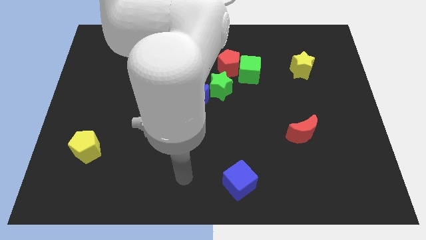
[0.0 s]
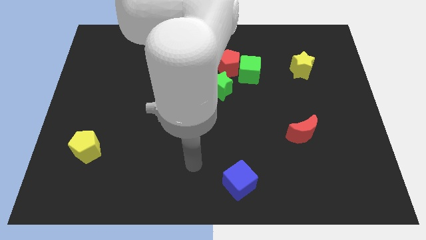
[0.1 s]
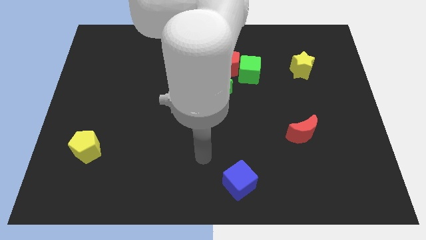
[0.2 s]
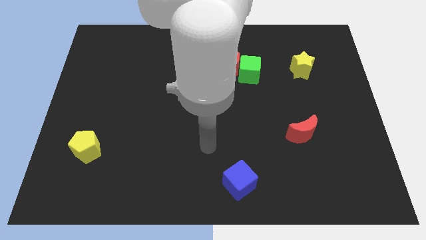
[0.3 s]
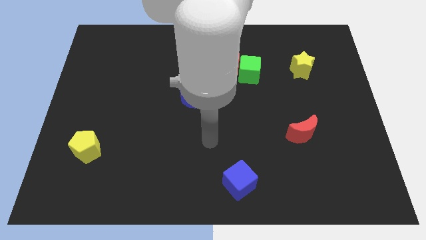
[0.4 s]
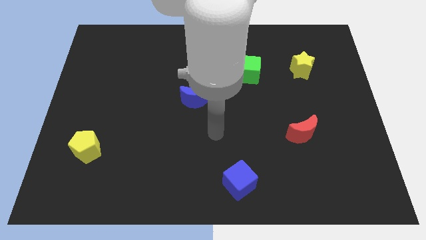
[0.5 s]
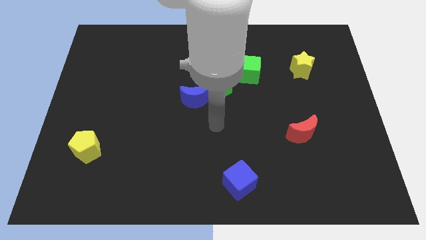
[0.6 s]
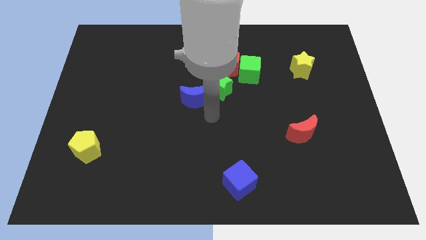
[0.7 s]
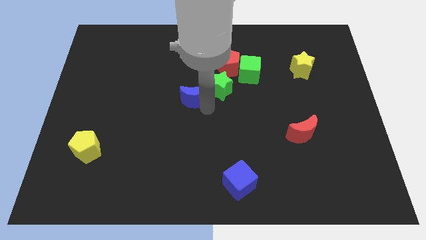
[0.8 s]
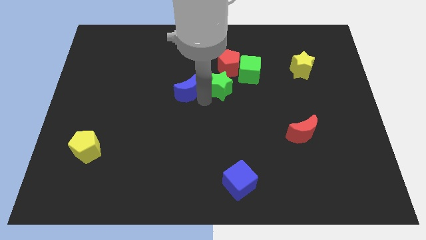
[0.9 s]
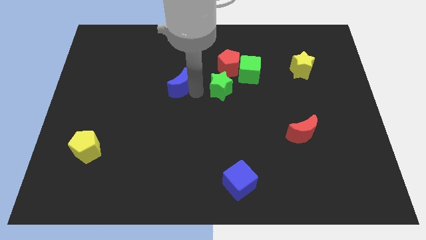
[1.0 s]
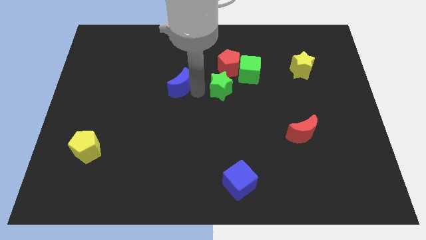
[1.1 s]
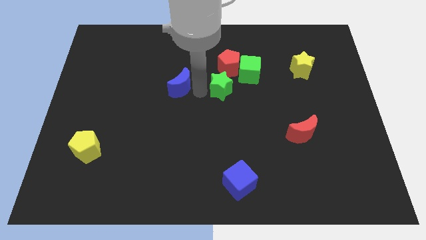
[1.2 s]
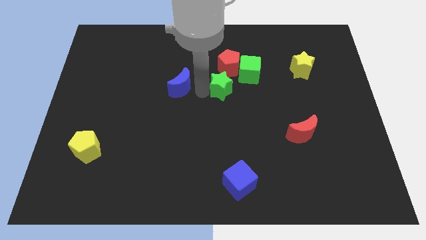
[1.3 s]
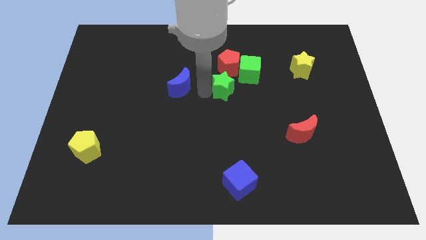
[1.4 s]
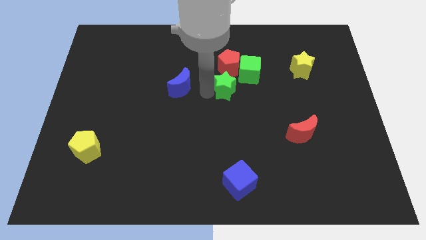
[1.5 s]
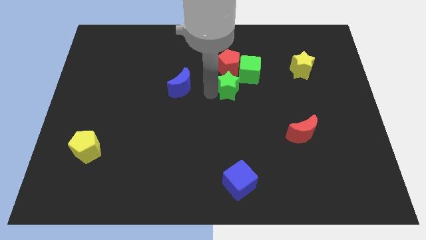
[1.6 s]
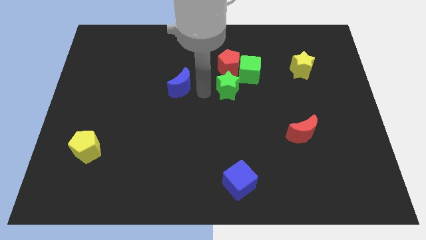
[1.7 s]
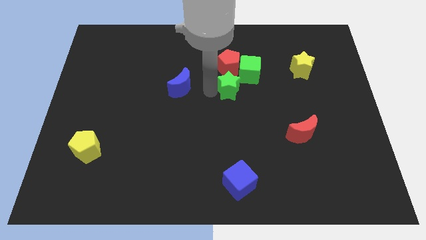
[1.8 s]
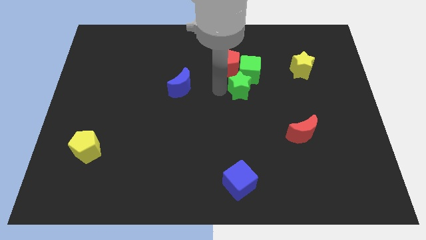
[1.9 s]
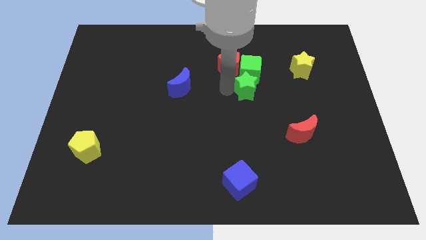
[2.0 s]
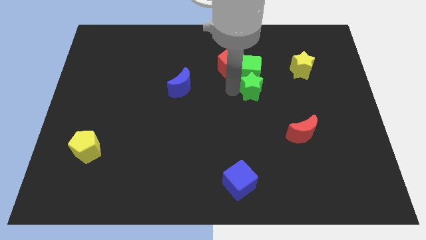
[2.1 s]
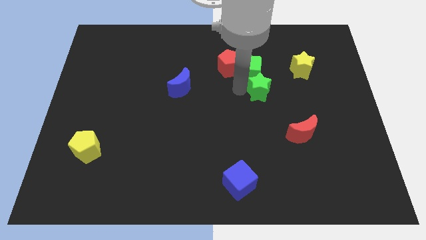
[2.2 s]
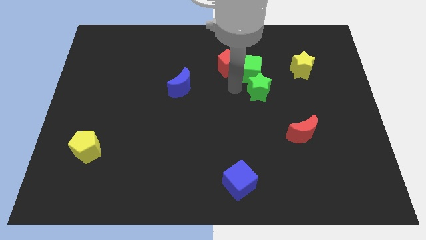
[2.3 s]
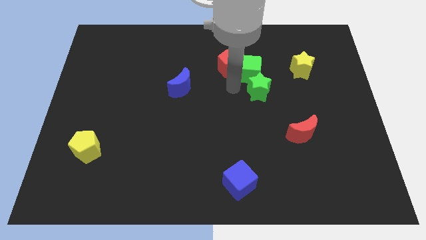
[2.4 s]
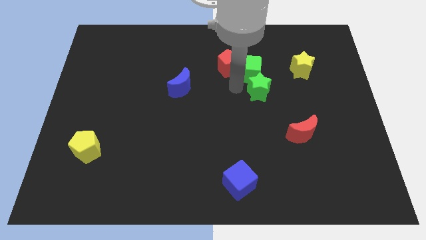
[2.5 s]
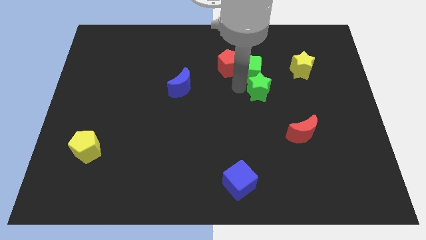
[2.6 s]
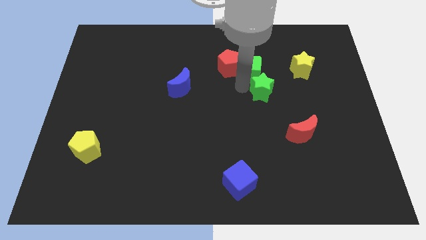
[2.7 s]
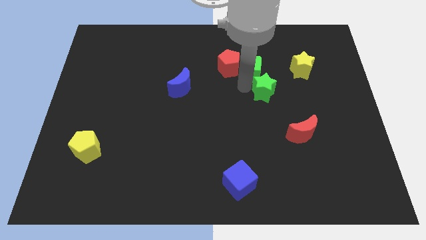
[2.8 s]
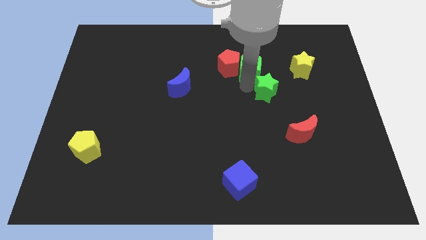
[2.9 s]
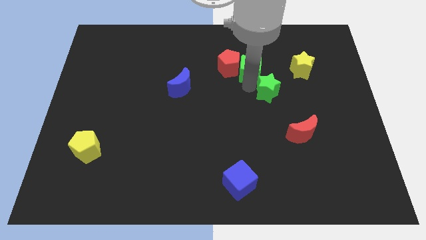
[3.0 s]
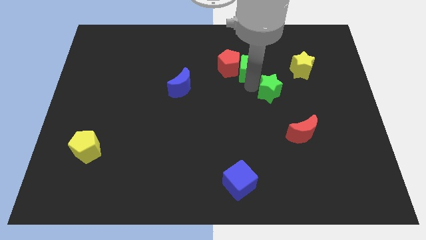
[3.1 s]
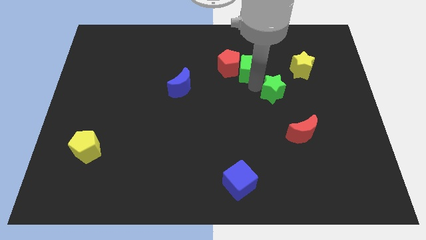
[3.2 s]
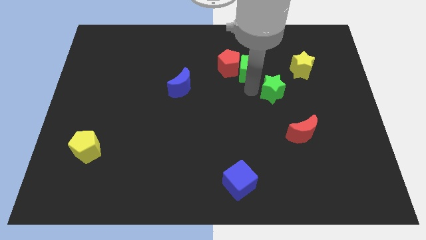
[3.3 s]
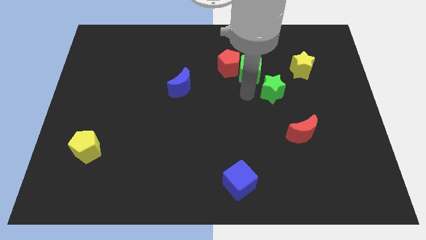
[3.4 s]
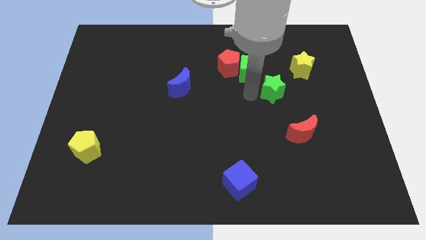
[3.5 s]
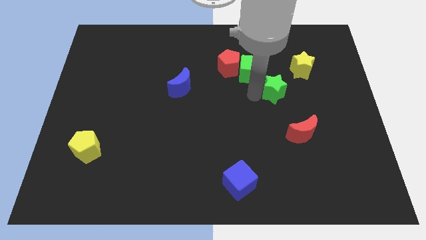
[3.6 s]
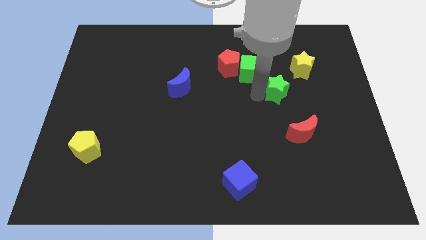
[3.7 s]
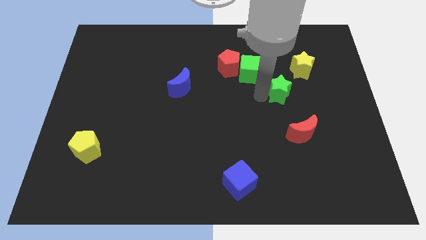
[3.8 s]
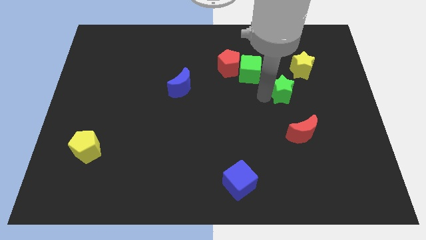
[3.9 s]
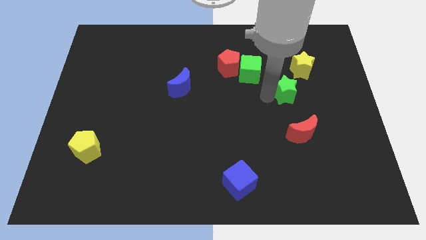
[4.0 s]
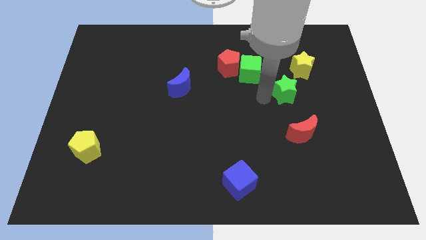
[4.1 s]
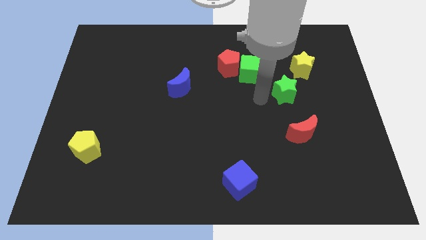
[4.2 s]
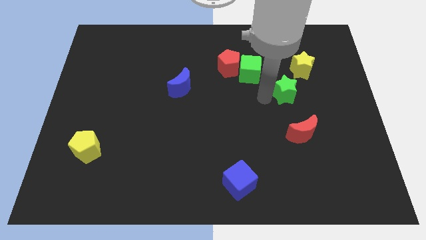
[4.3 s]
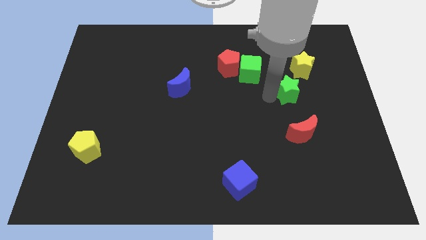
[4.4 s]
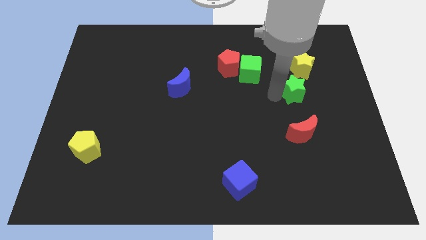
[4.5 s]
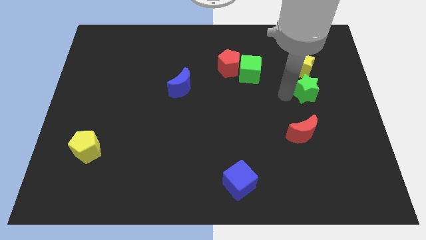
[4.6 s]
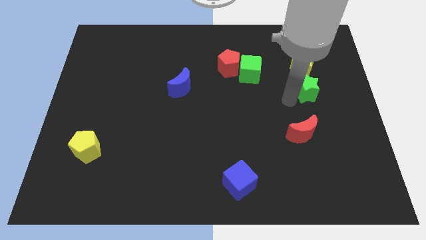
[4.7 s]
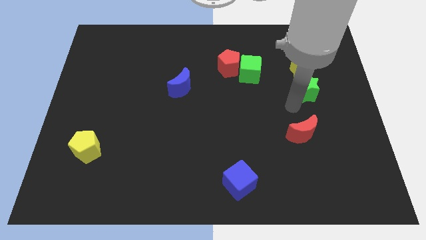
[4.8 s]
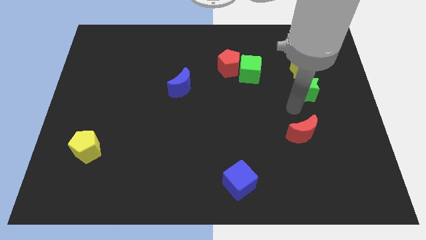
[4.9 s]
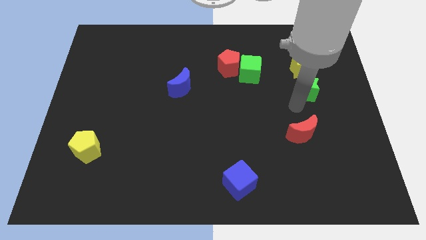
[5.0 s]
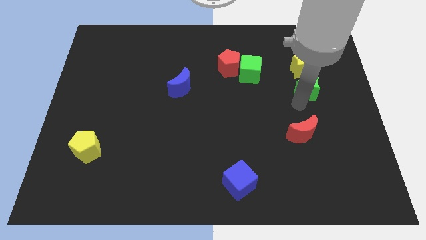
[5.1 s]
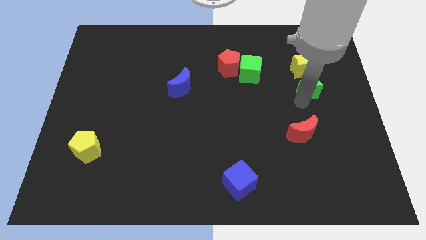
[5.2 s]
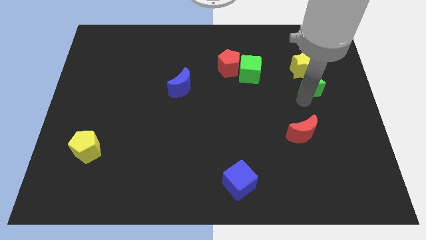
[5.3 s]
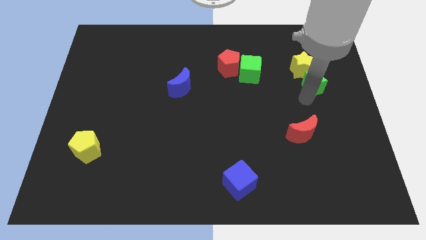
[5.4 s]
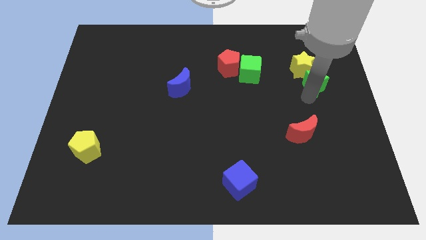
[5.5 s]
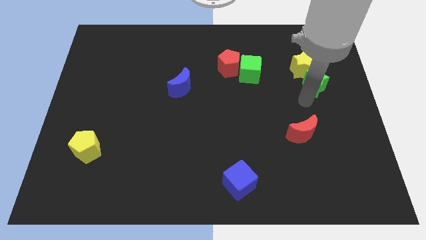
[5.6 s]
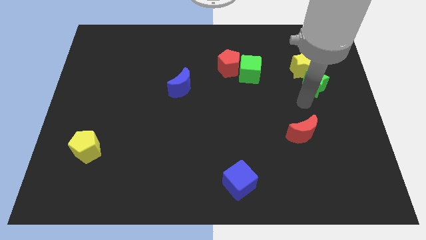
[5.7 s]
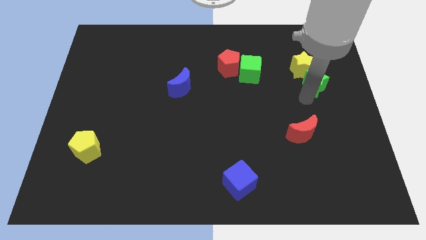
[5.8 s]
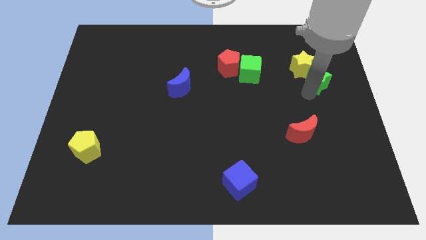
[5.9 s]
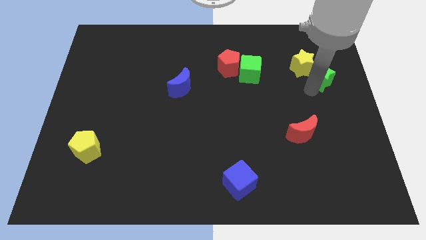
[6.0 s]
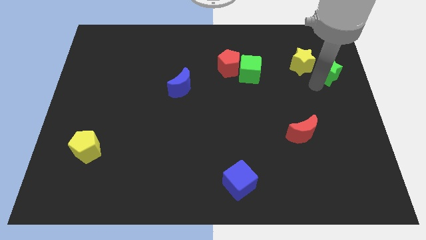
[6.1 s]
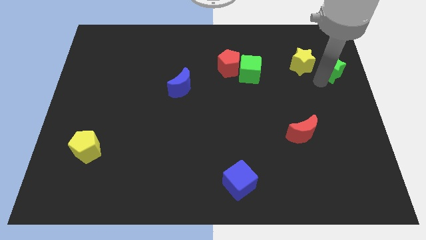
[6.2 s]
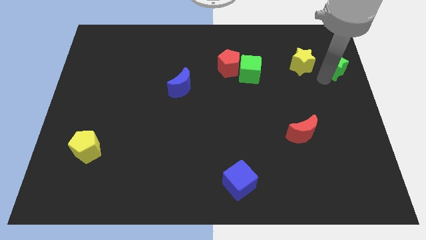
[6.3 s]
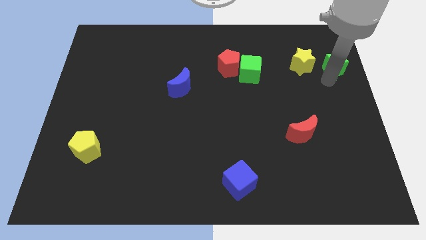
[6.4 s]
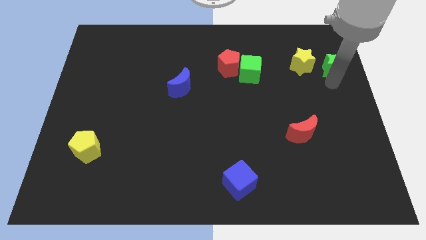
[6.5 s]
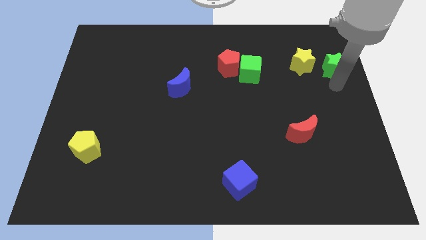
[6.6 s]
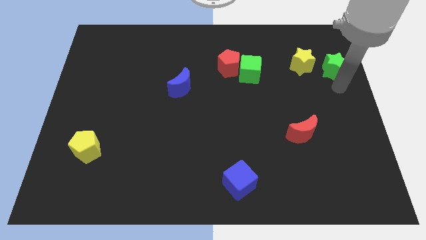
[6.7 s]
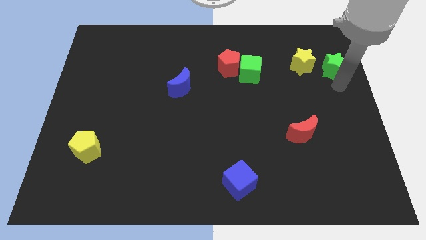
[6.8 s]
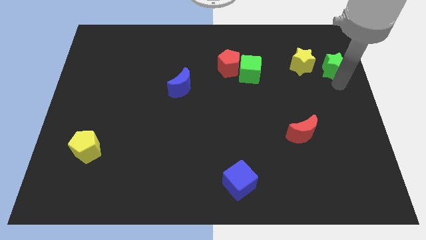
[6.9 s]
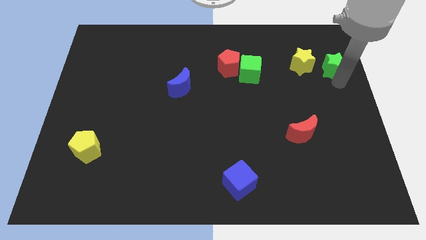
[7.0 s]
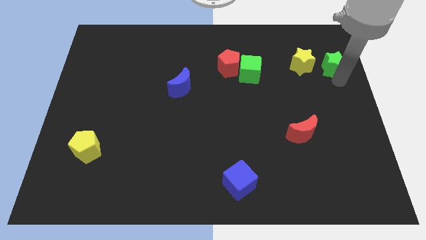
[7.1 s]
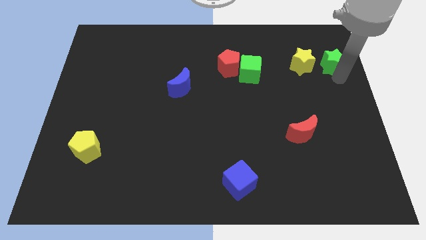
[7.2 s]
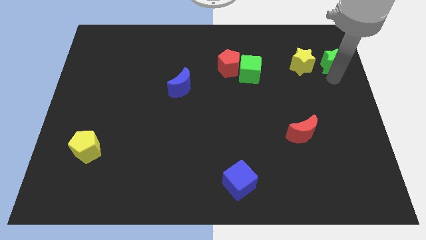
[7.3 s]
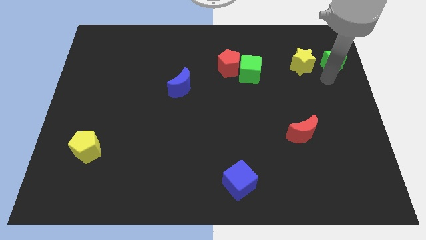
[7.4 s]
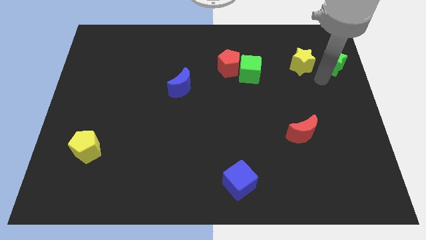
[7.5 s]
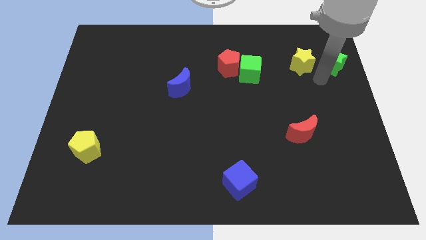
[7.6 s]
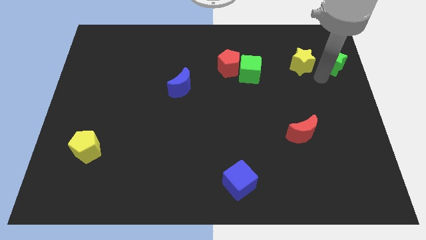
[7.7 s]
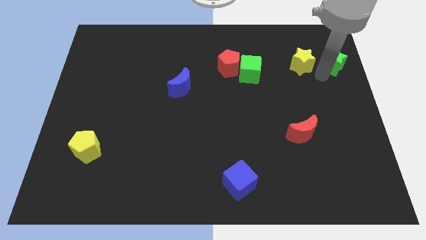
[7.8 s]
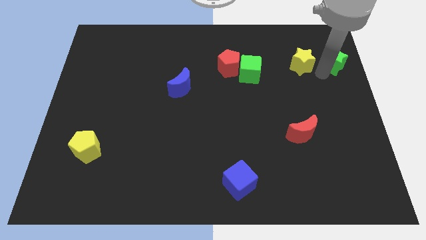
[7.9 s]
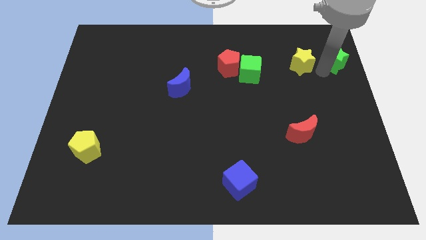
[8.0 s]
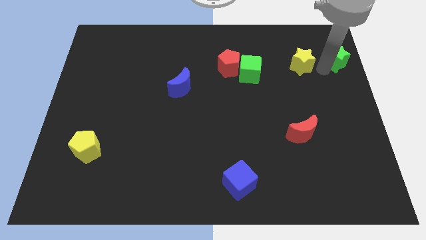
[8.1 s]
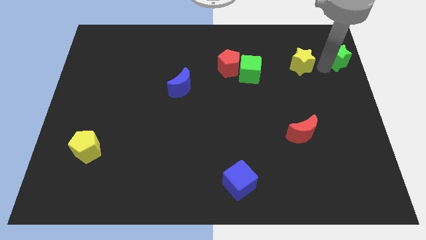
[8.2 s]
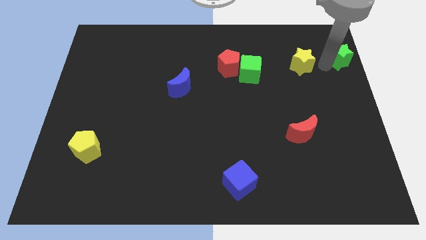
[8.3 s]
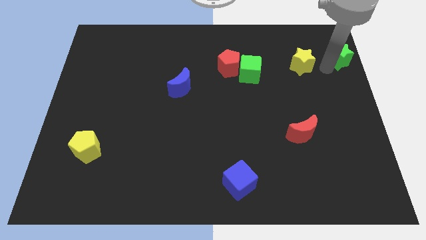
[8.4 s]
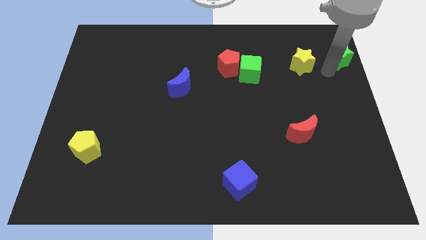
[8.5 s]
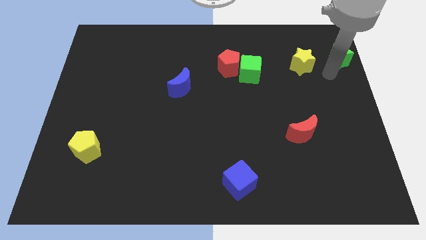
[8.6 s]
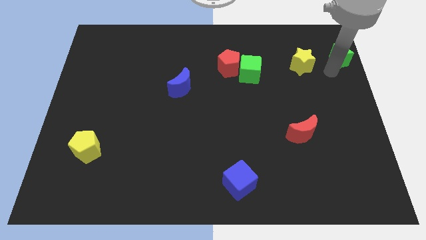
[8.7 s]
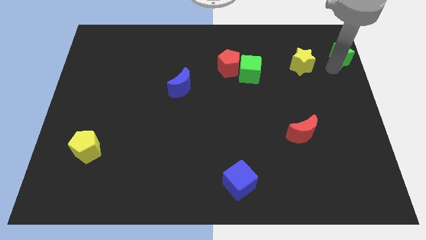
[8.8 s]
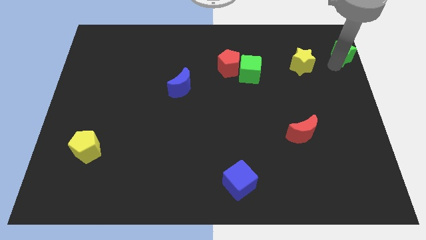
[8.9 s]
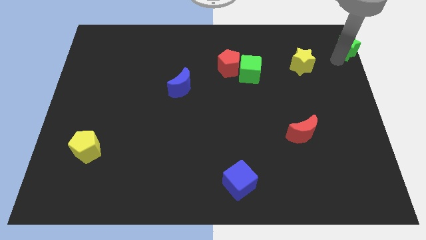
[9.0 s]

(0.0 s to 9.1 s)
slide the green star to the top right of the board
